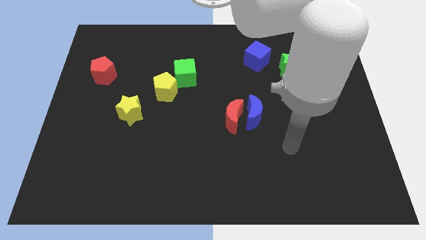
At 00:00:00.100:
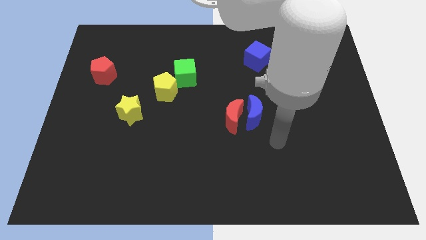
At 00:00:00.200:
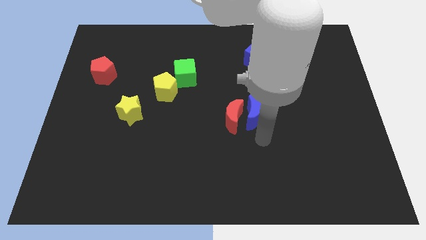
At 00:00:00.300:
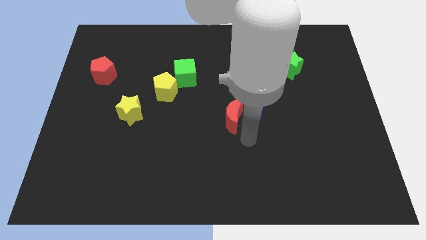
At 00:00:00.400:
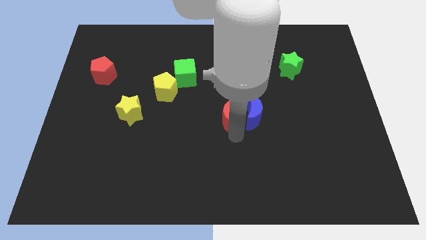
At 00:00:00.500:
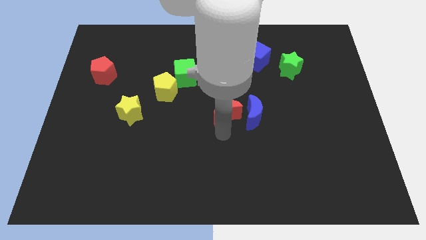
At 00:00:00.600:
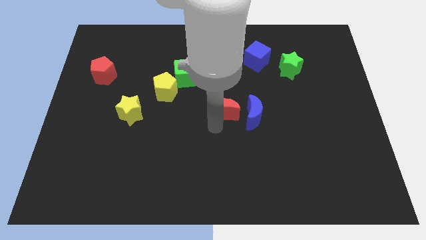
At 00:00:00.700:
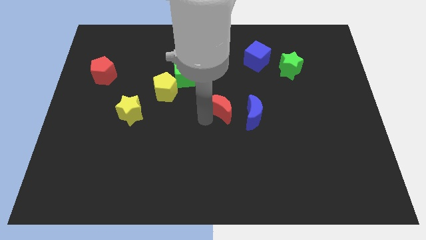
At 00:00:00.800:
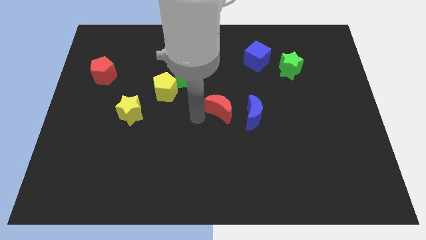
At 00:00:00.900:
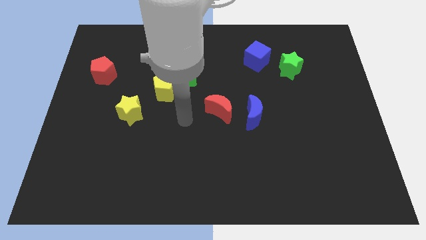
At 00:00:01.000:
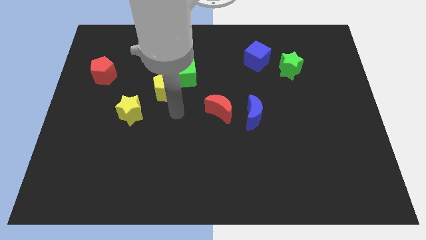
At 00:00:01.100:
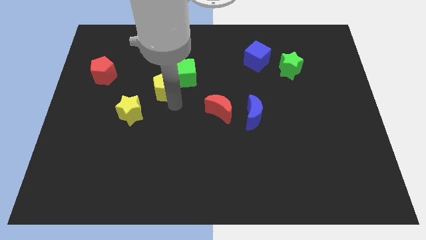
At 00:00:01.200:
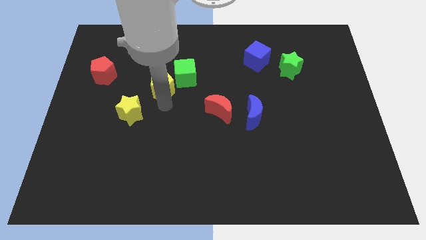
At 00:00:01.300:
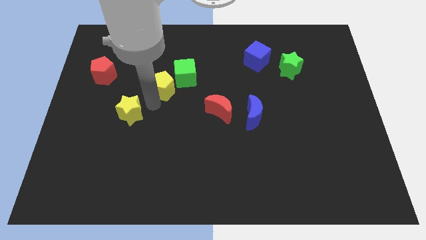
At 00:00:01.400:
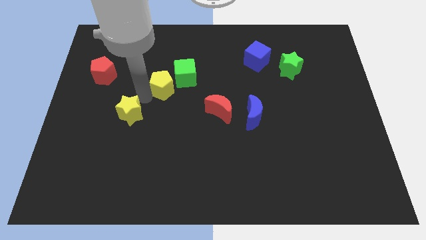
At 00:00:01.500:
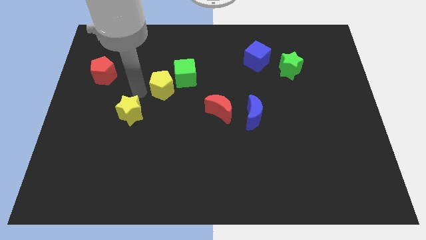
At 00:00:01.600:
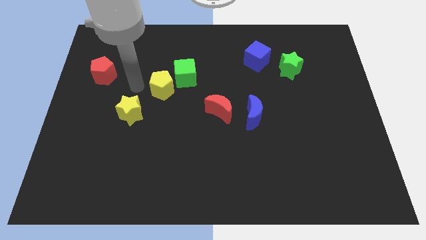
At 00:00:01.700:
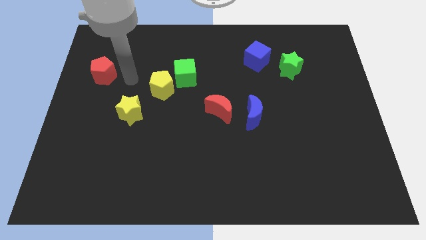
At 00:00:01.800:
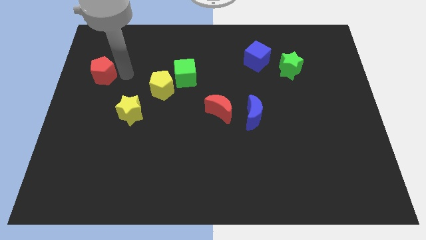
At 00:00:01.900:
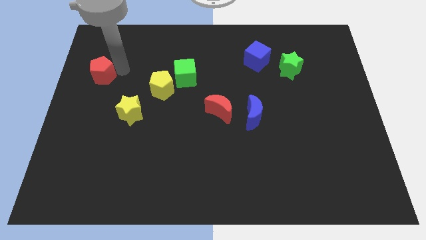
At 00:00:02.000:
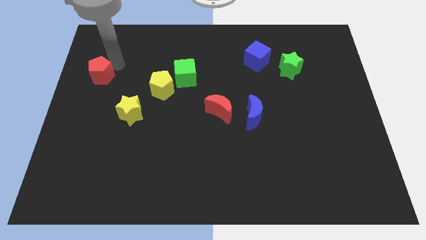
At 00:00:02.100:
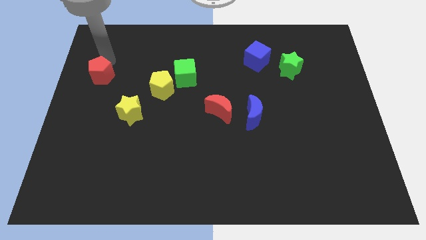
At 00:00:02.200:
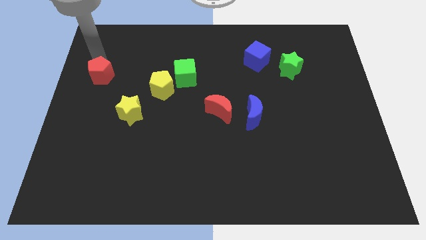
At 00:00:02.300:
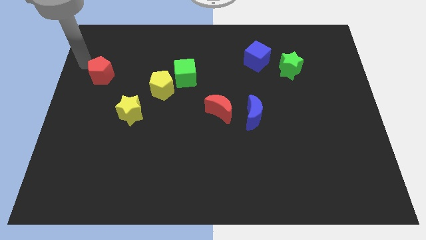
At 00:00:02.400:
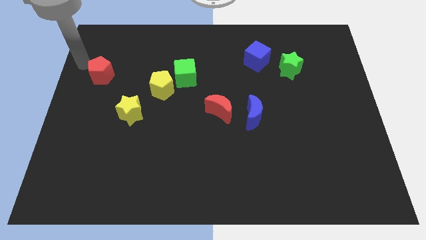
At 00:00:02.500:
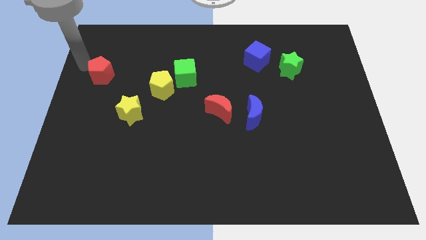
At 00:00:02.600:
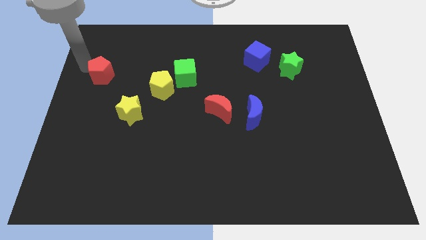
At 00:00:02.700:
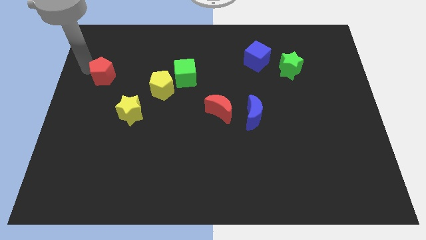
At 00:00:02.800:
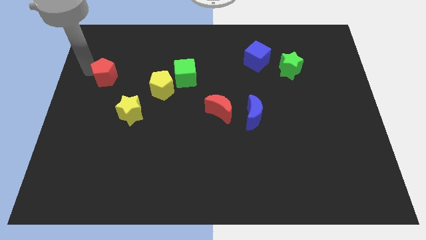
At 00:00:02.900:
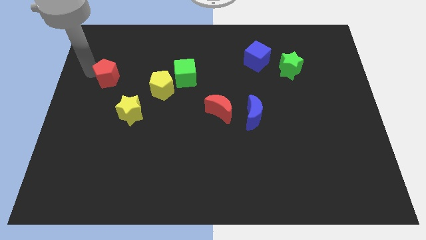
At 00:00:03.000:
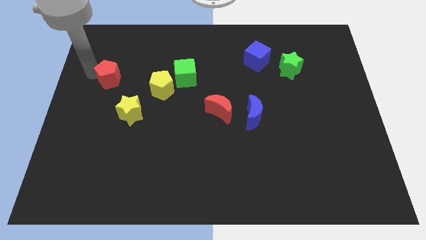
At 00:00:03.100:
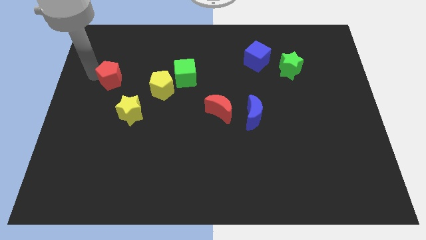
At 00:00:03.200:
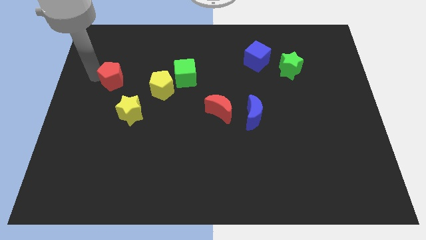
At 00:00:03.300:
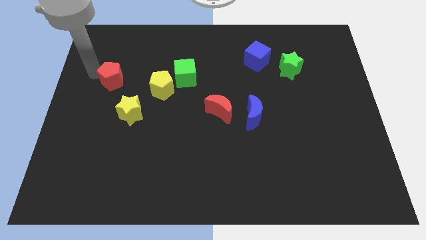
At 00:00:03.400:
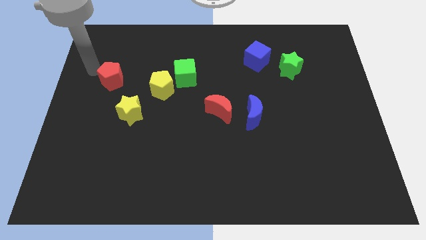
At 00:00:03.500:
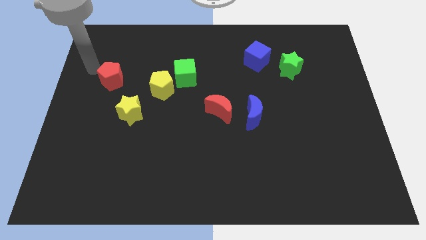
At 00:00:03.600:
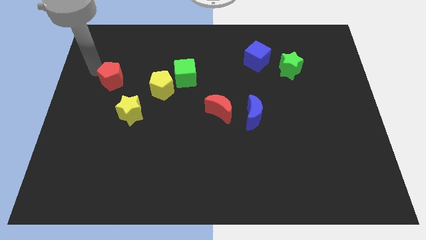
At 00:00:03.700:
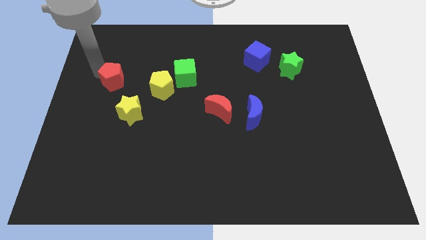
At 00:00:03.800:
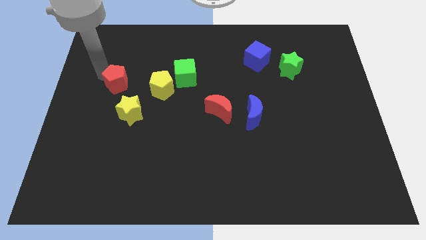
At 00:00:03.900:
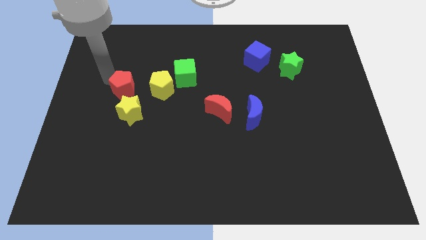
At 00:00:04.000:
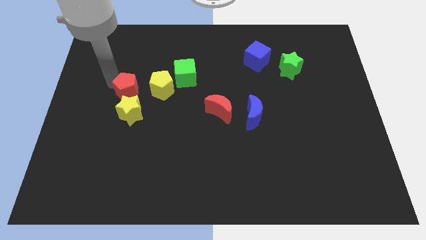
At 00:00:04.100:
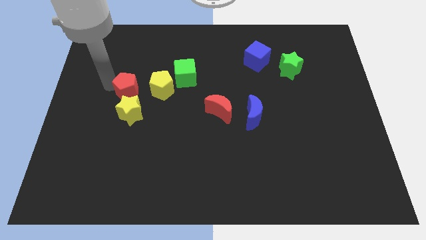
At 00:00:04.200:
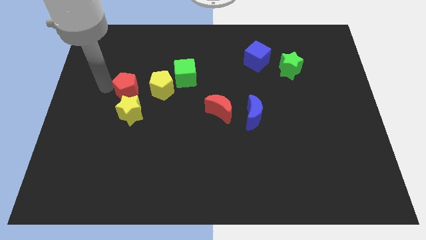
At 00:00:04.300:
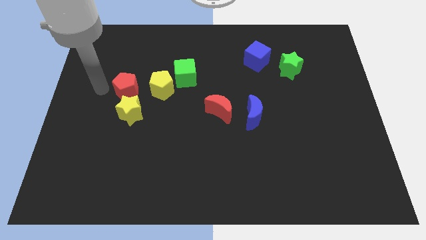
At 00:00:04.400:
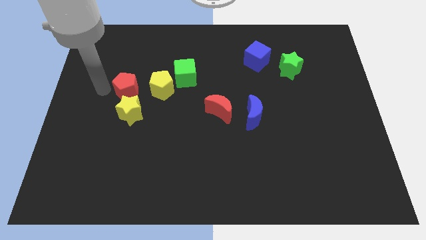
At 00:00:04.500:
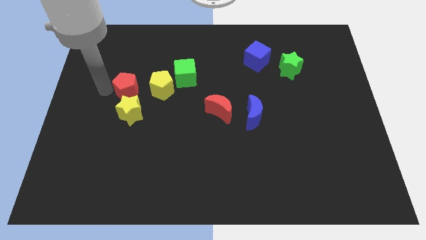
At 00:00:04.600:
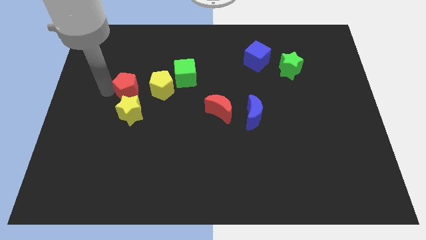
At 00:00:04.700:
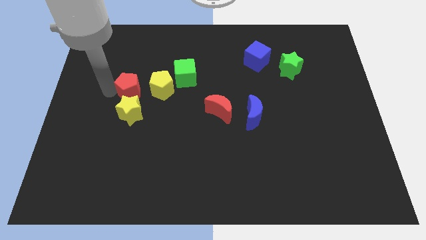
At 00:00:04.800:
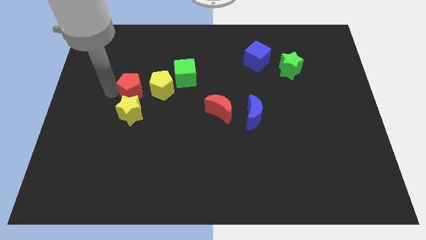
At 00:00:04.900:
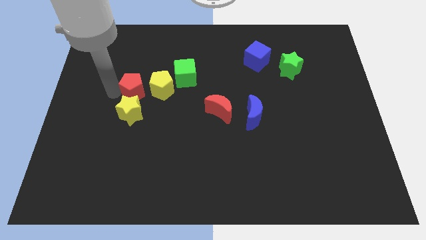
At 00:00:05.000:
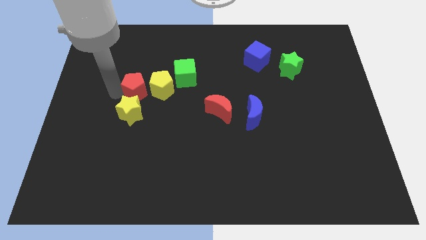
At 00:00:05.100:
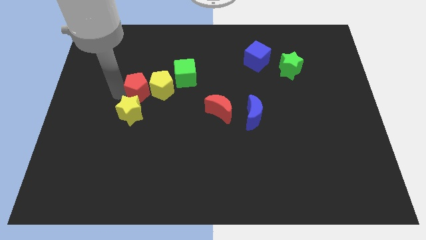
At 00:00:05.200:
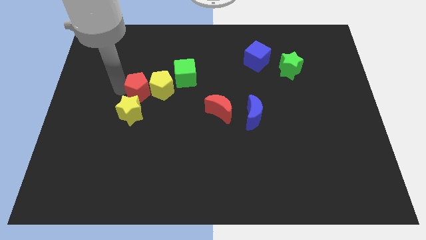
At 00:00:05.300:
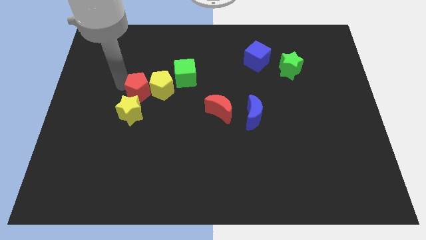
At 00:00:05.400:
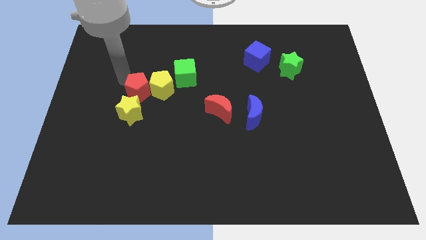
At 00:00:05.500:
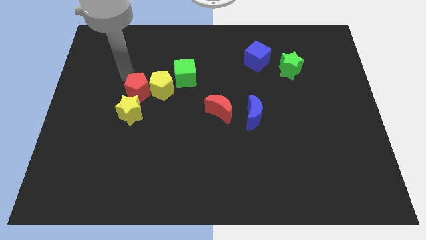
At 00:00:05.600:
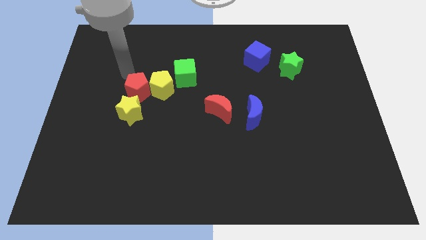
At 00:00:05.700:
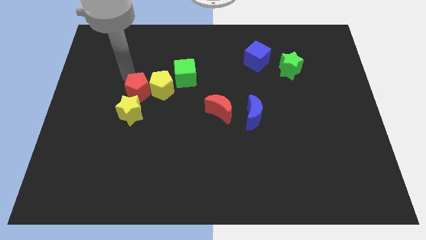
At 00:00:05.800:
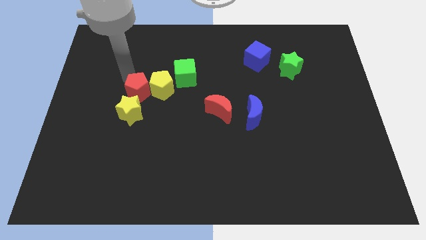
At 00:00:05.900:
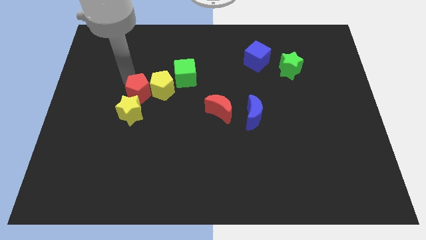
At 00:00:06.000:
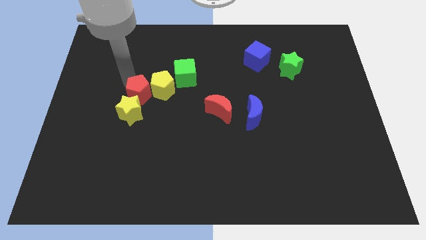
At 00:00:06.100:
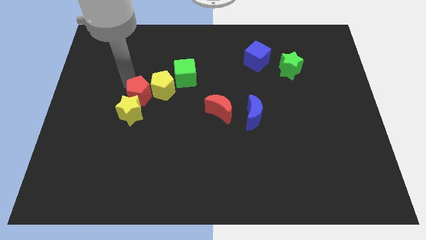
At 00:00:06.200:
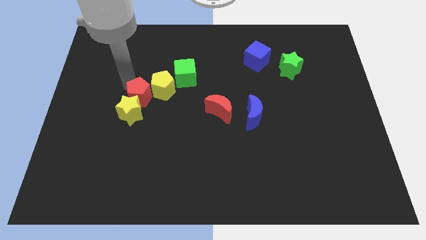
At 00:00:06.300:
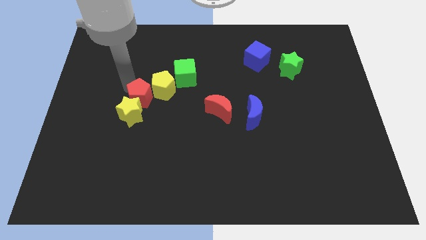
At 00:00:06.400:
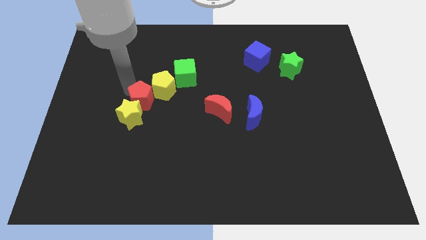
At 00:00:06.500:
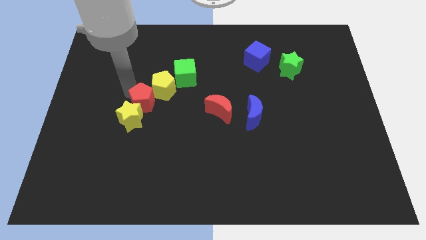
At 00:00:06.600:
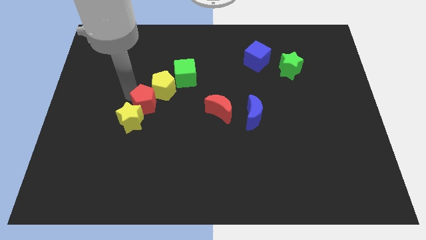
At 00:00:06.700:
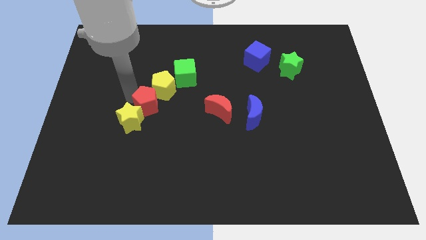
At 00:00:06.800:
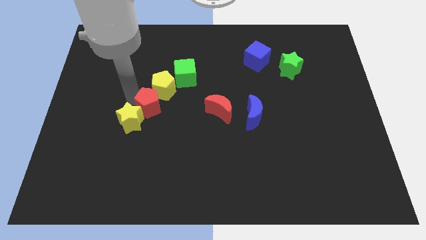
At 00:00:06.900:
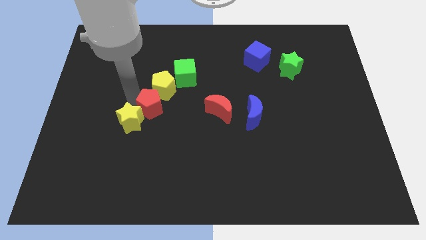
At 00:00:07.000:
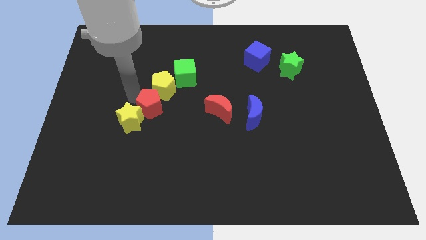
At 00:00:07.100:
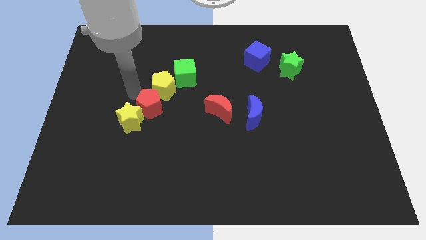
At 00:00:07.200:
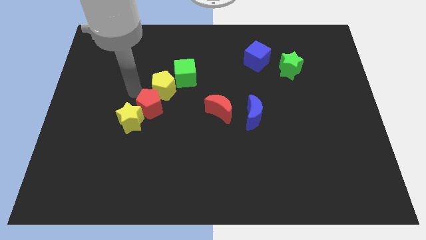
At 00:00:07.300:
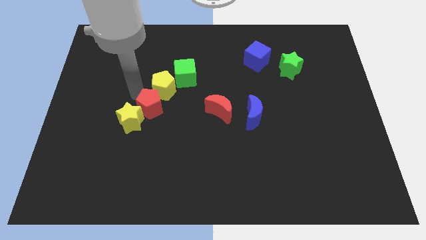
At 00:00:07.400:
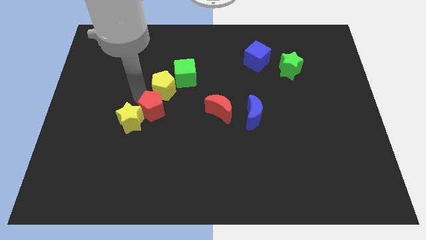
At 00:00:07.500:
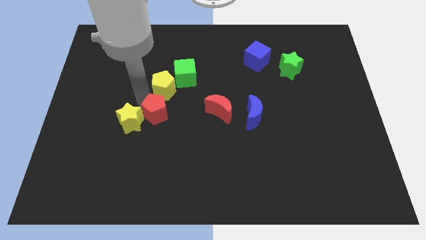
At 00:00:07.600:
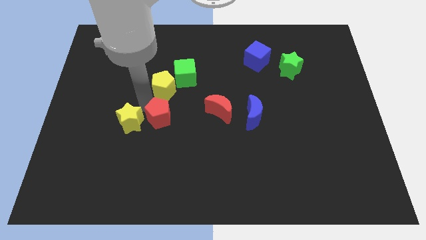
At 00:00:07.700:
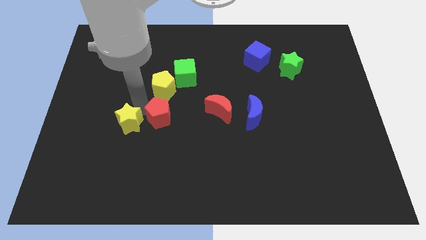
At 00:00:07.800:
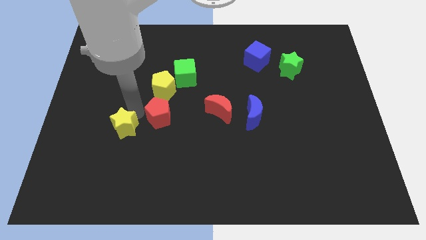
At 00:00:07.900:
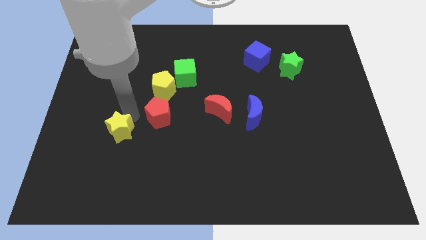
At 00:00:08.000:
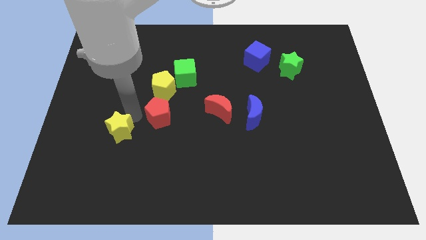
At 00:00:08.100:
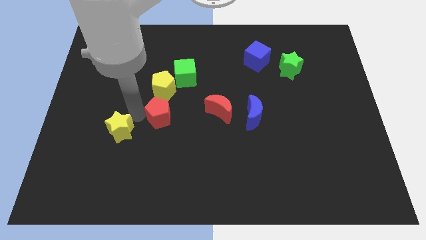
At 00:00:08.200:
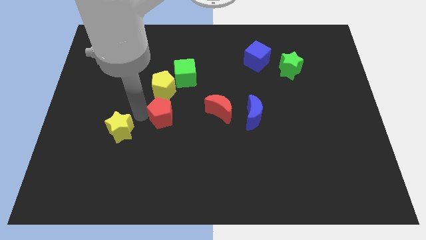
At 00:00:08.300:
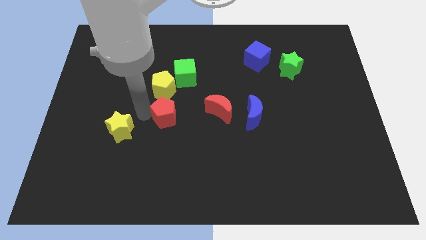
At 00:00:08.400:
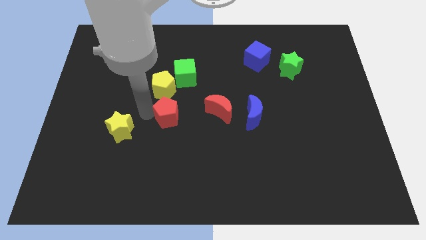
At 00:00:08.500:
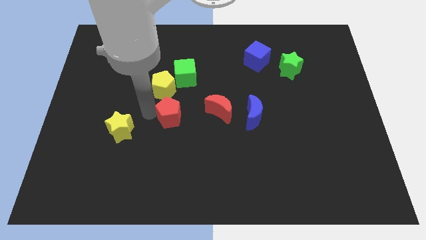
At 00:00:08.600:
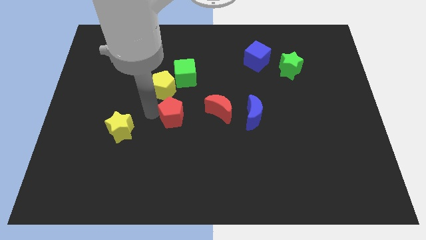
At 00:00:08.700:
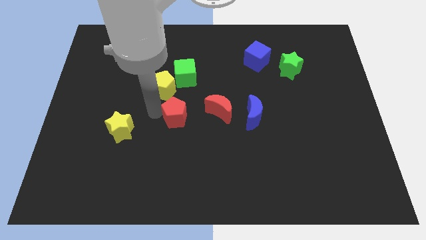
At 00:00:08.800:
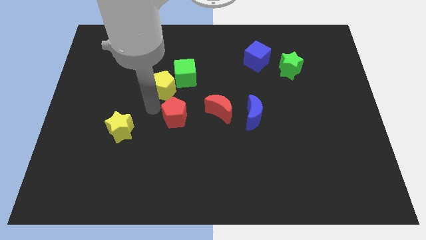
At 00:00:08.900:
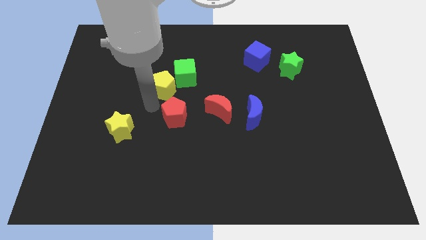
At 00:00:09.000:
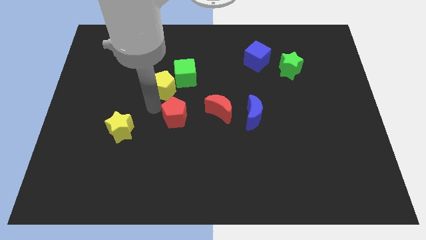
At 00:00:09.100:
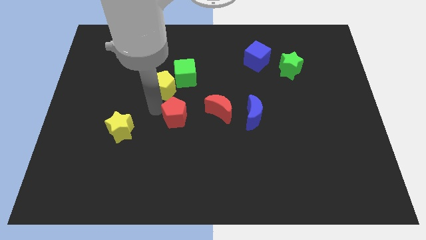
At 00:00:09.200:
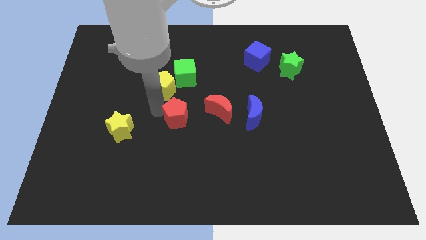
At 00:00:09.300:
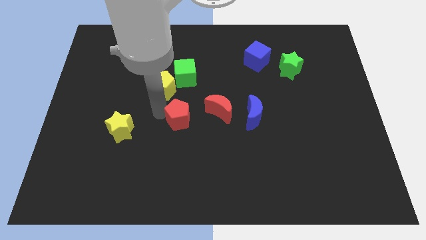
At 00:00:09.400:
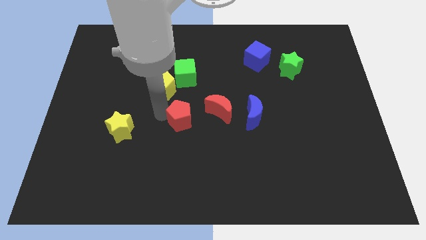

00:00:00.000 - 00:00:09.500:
put the red pentagon to the bottom left side of the red moon
